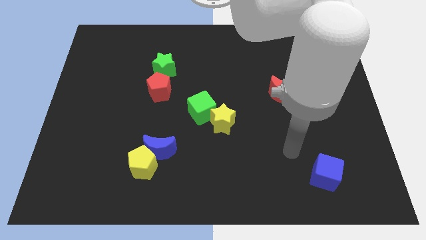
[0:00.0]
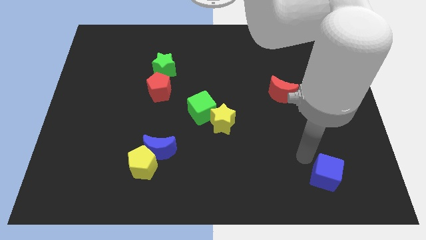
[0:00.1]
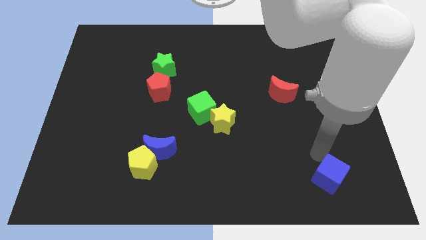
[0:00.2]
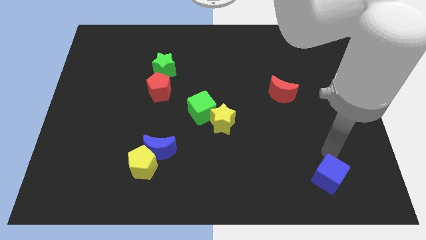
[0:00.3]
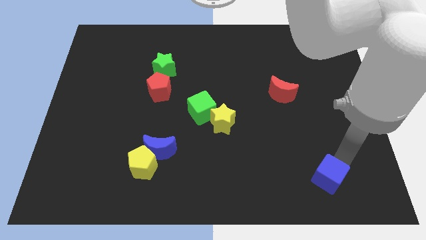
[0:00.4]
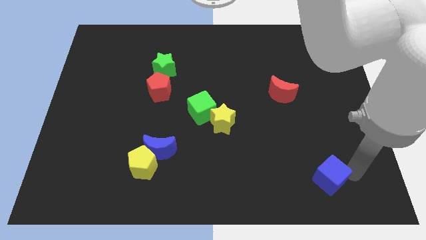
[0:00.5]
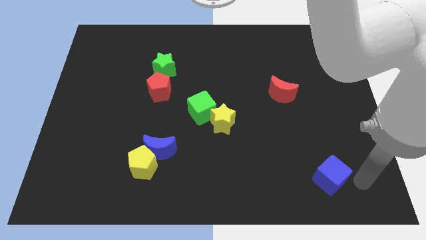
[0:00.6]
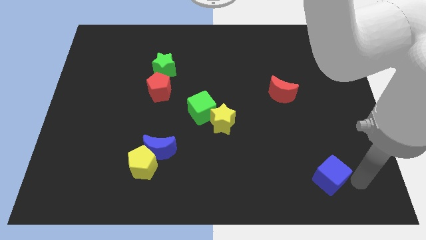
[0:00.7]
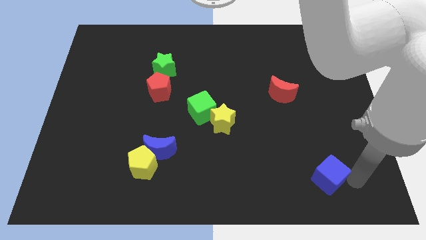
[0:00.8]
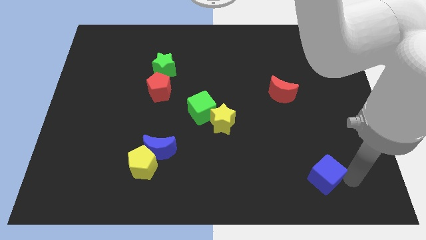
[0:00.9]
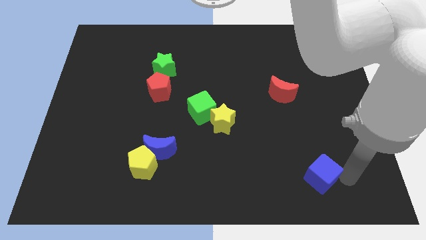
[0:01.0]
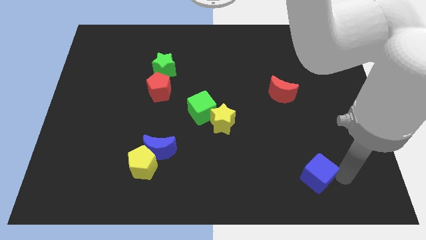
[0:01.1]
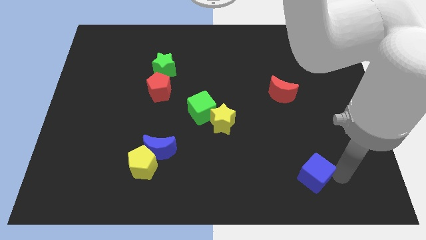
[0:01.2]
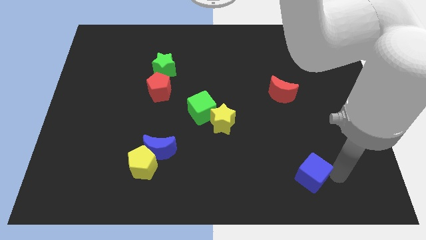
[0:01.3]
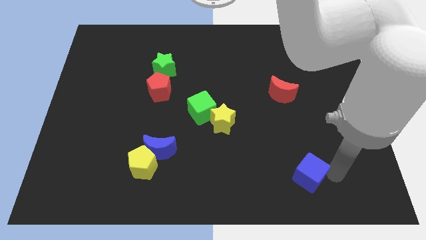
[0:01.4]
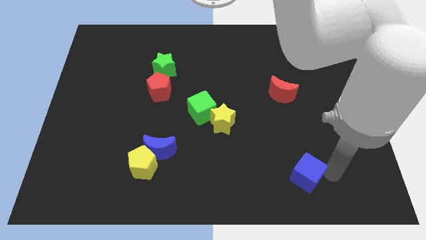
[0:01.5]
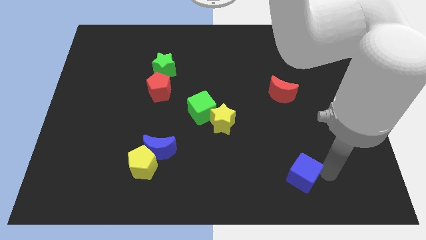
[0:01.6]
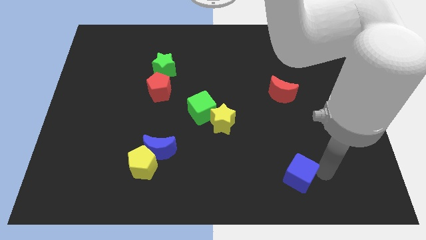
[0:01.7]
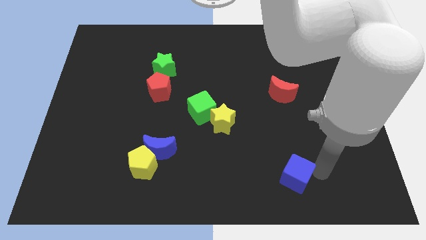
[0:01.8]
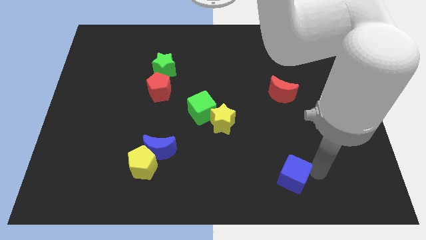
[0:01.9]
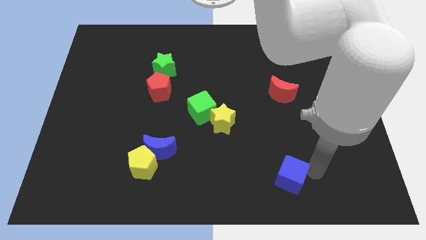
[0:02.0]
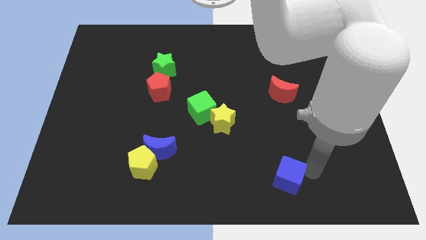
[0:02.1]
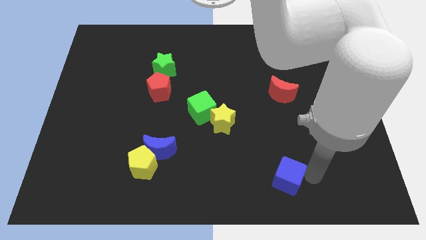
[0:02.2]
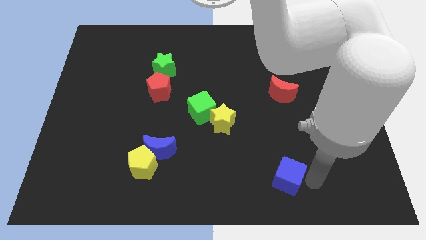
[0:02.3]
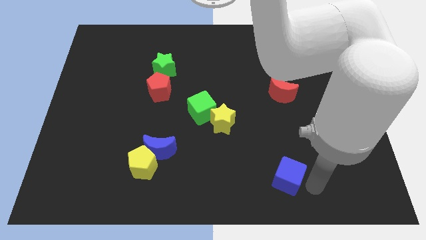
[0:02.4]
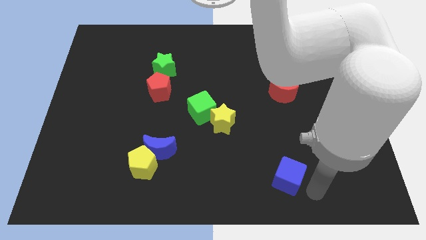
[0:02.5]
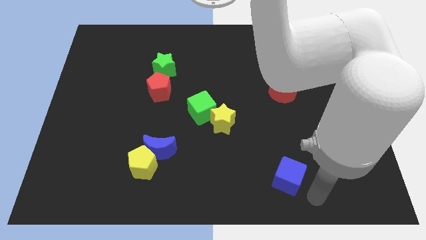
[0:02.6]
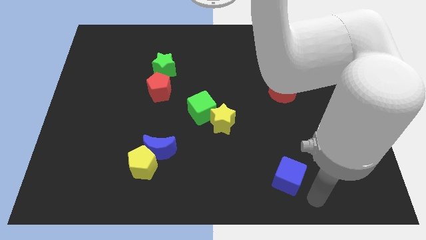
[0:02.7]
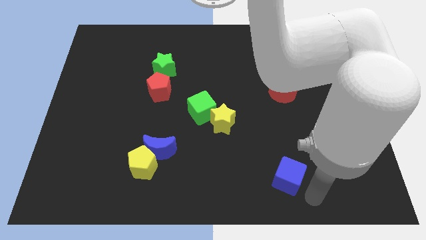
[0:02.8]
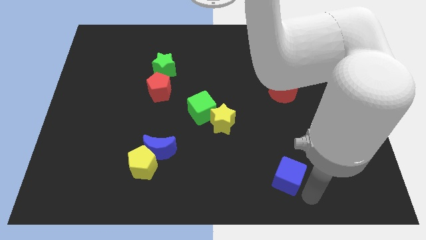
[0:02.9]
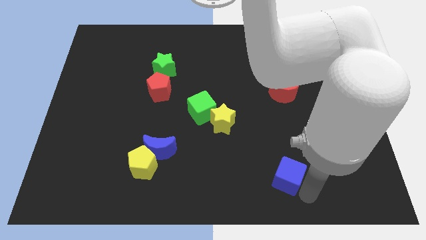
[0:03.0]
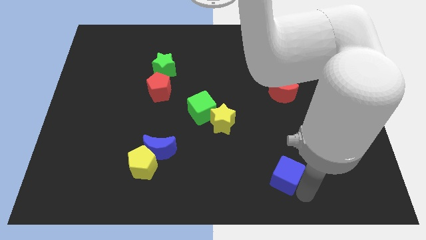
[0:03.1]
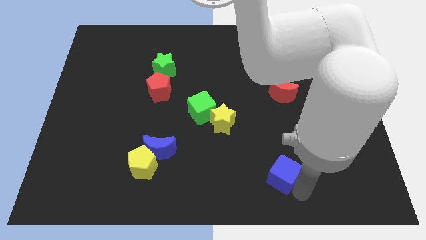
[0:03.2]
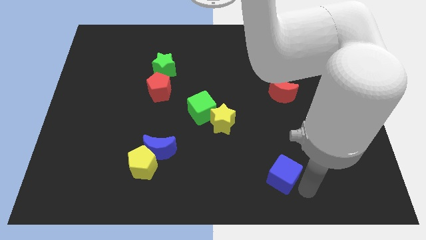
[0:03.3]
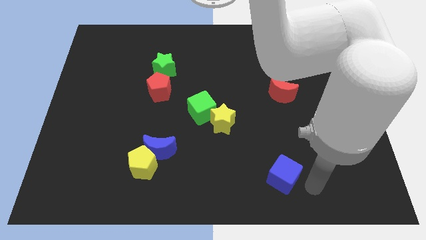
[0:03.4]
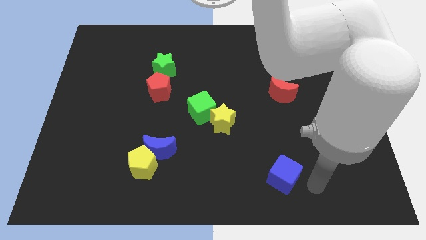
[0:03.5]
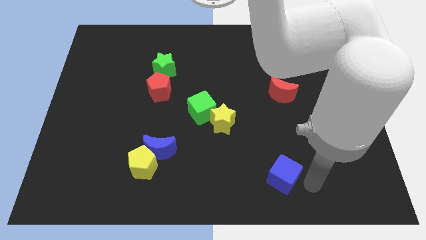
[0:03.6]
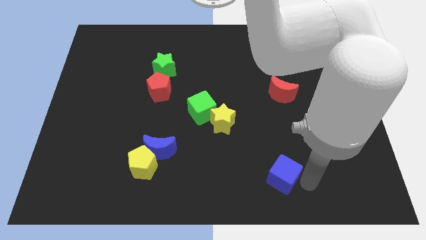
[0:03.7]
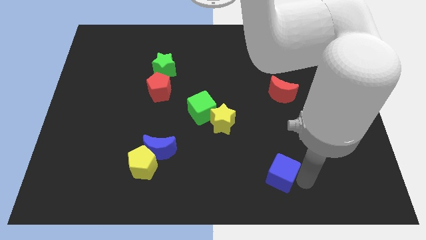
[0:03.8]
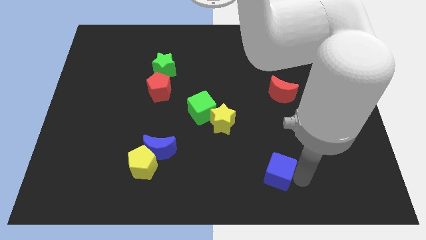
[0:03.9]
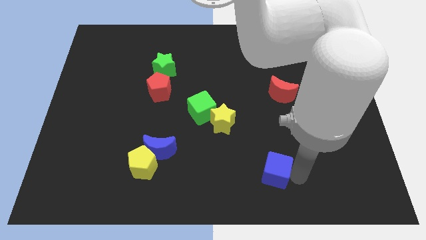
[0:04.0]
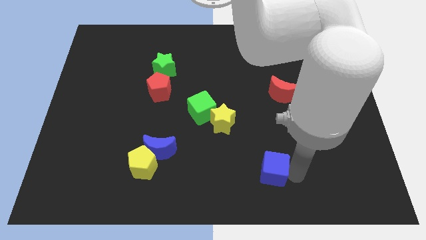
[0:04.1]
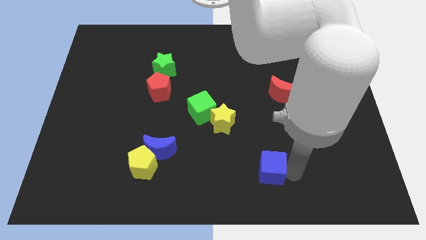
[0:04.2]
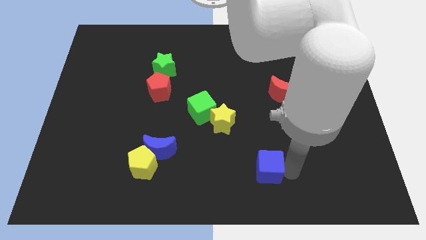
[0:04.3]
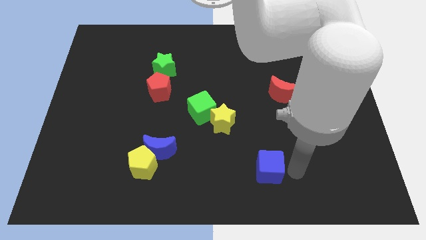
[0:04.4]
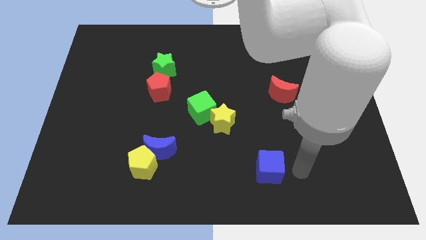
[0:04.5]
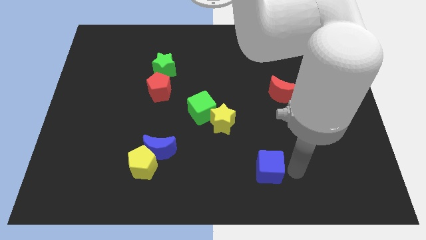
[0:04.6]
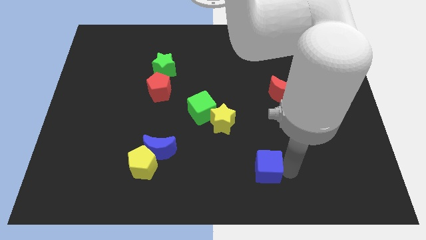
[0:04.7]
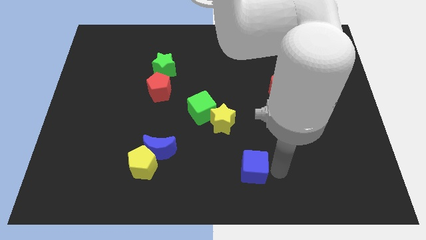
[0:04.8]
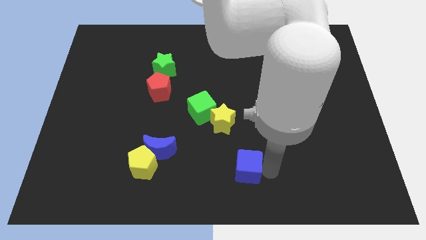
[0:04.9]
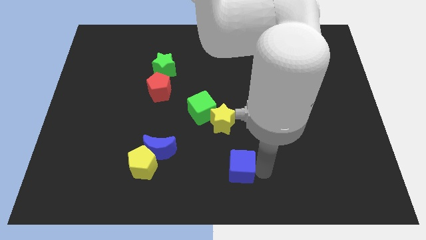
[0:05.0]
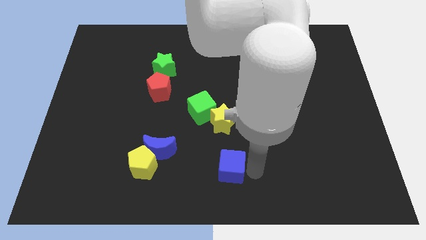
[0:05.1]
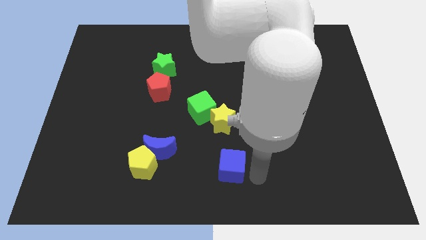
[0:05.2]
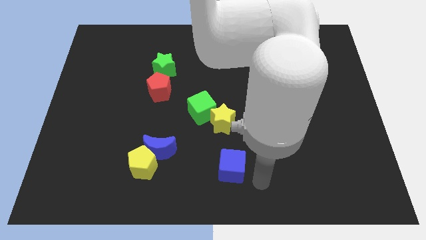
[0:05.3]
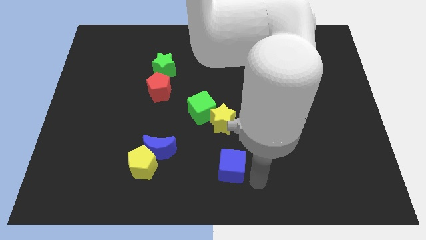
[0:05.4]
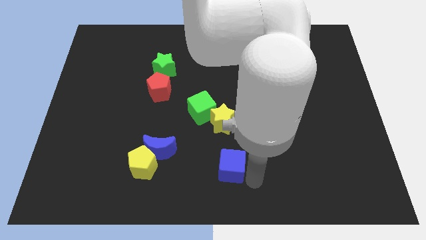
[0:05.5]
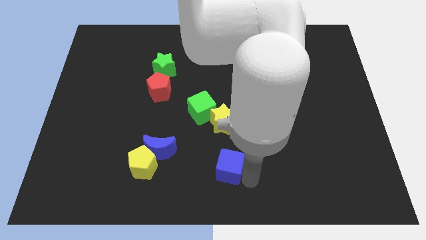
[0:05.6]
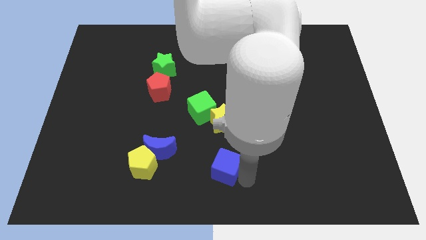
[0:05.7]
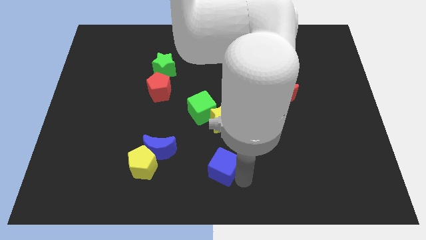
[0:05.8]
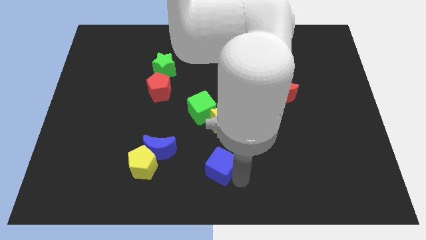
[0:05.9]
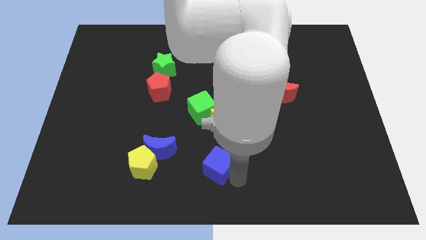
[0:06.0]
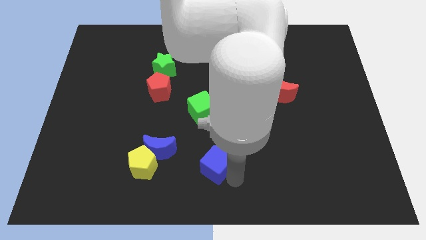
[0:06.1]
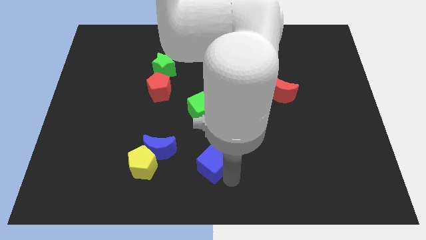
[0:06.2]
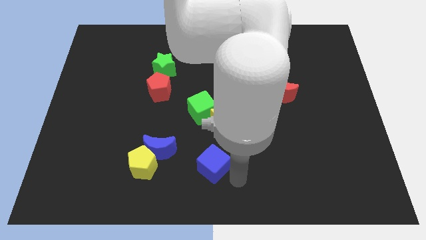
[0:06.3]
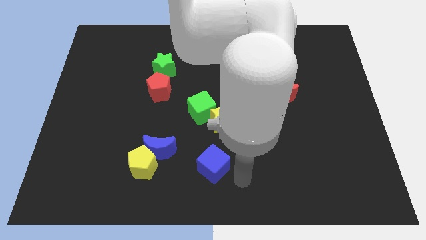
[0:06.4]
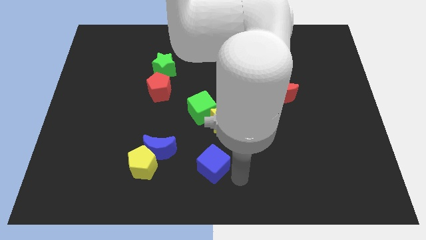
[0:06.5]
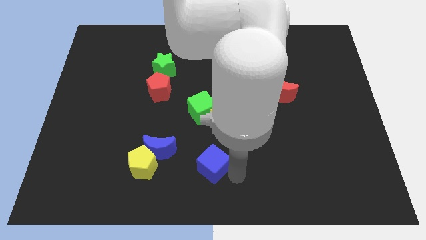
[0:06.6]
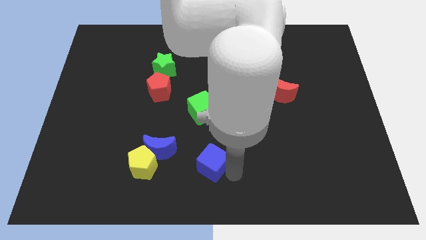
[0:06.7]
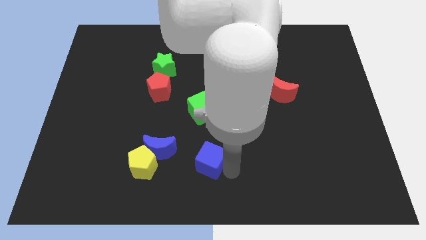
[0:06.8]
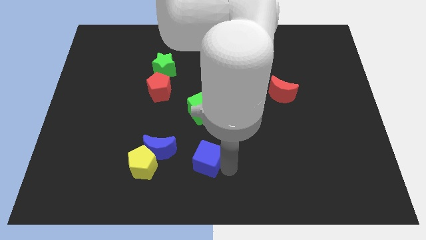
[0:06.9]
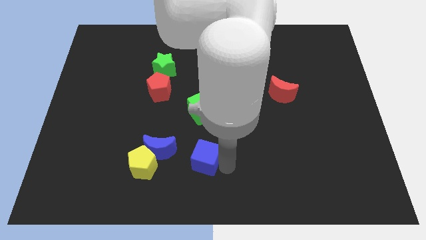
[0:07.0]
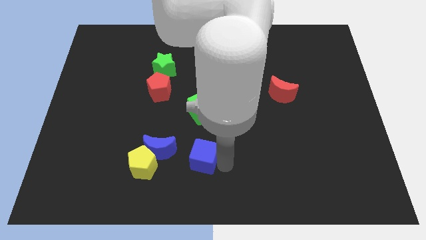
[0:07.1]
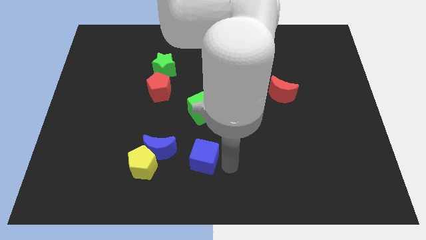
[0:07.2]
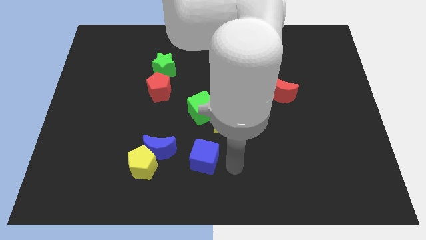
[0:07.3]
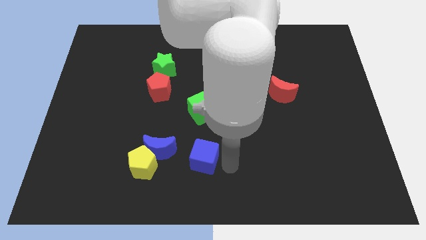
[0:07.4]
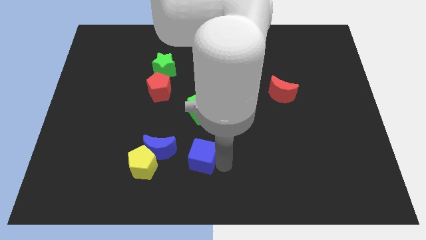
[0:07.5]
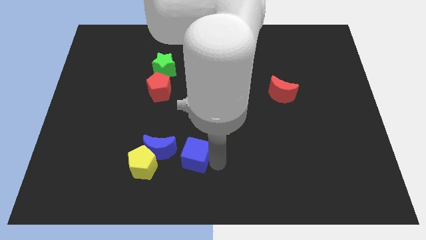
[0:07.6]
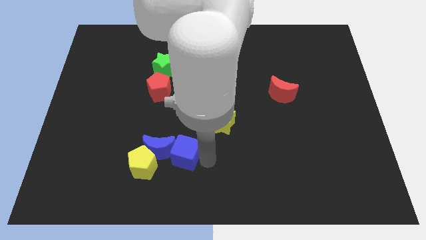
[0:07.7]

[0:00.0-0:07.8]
push the blue cube next to the blue moon
